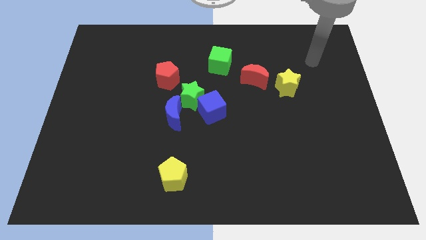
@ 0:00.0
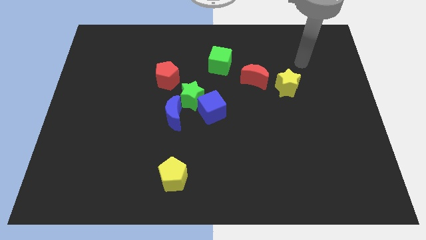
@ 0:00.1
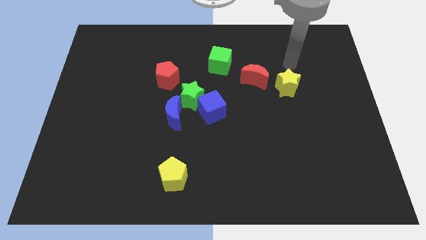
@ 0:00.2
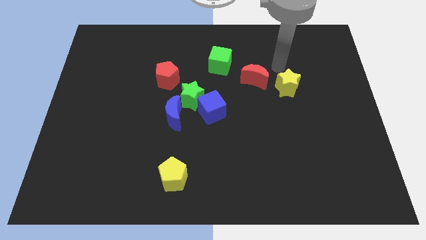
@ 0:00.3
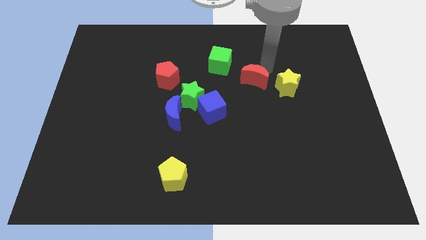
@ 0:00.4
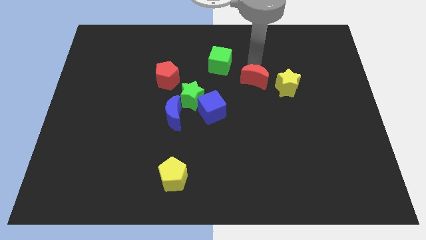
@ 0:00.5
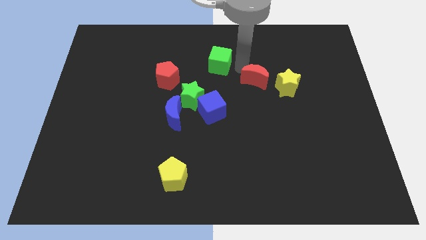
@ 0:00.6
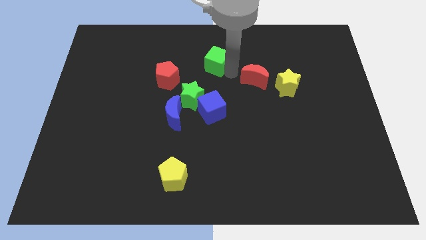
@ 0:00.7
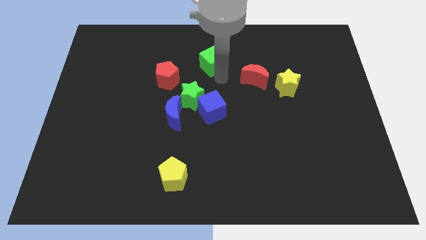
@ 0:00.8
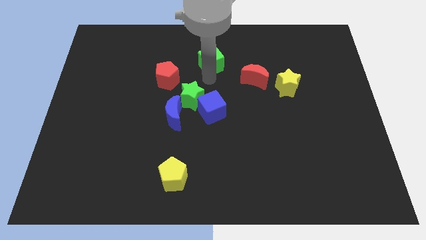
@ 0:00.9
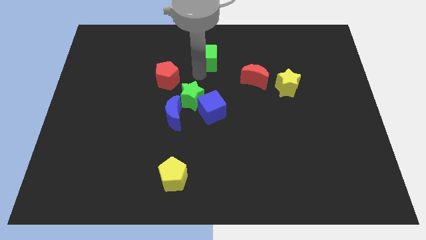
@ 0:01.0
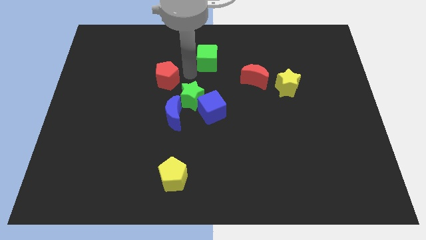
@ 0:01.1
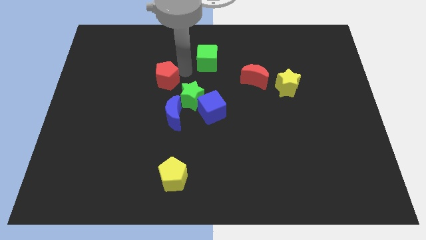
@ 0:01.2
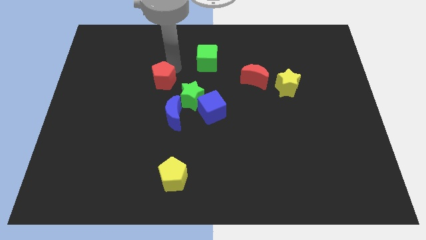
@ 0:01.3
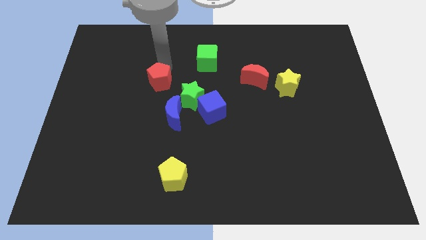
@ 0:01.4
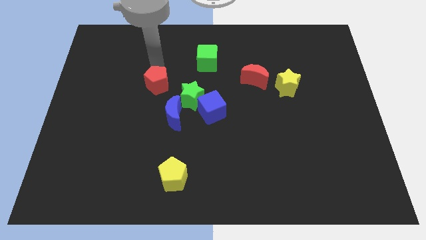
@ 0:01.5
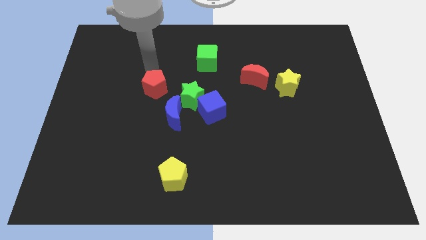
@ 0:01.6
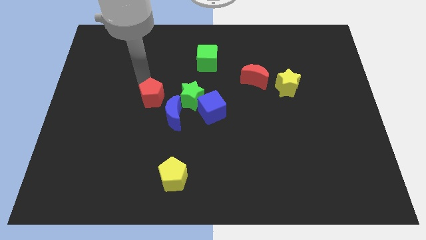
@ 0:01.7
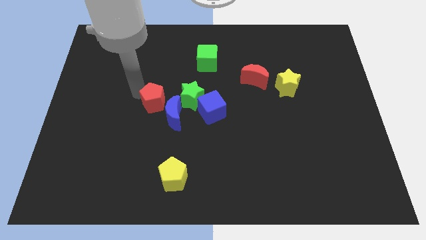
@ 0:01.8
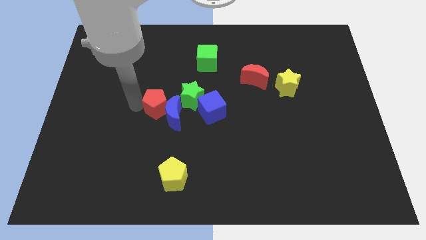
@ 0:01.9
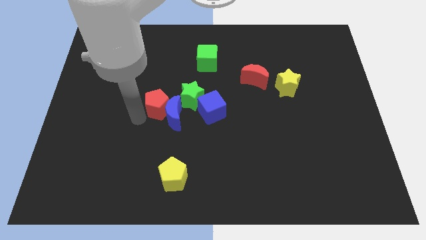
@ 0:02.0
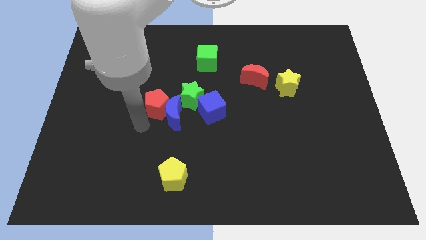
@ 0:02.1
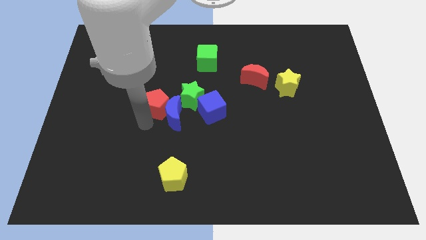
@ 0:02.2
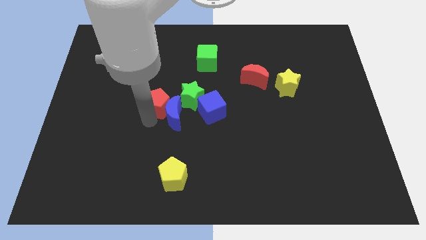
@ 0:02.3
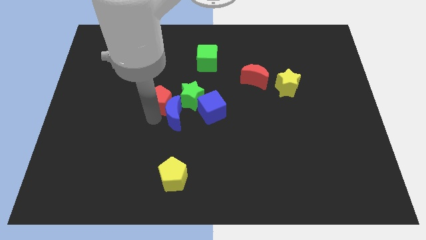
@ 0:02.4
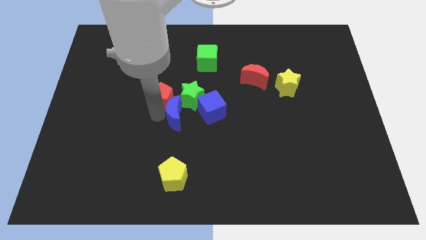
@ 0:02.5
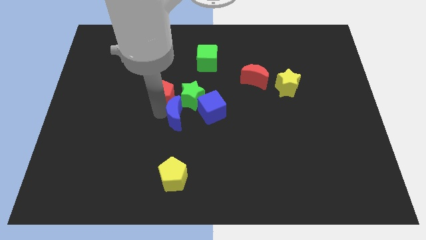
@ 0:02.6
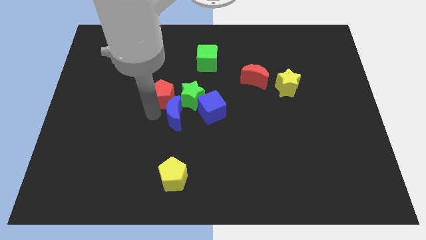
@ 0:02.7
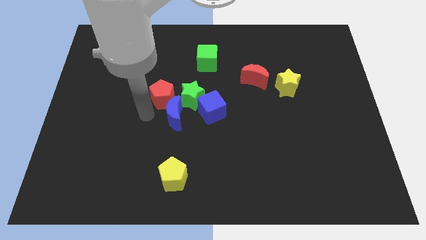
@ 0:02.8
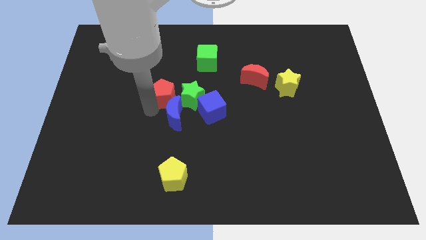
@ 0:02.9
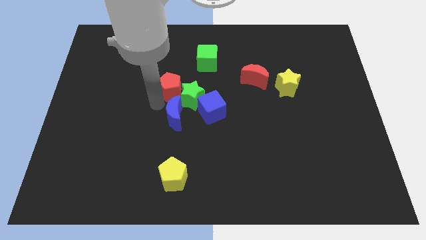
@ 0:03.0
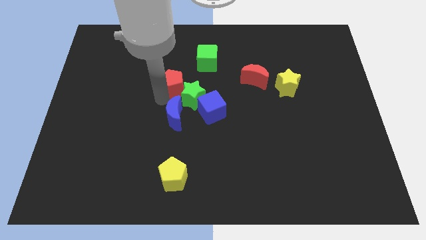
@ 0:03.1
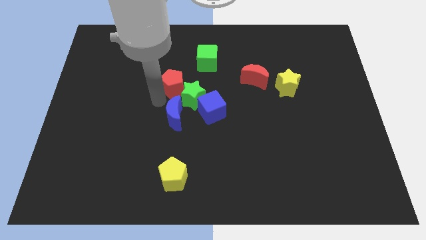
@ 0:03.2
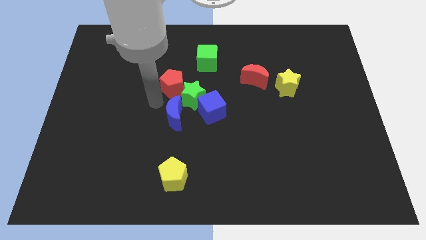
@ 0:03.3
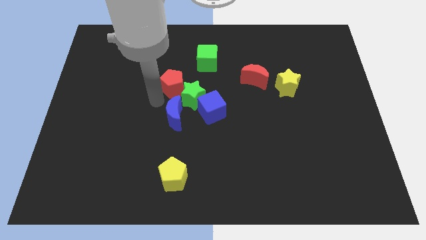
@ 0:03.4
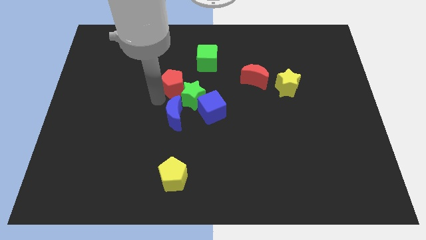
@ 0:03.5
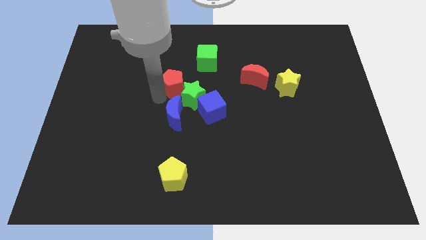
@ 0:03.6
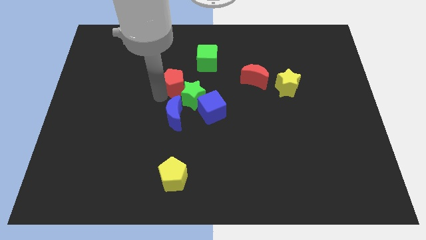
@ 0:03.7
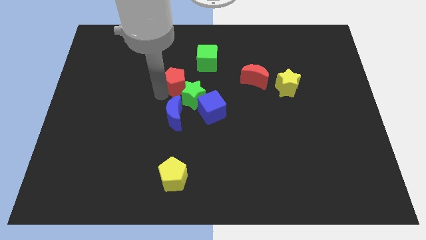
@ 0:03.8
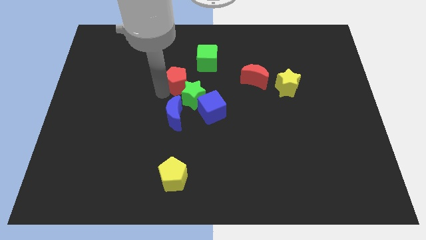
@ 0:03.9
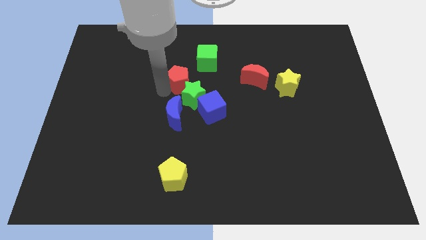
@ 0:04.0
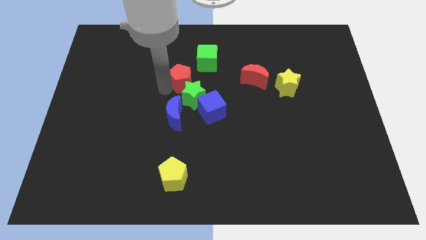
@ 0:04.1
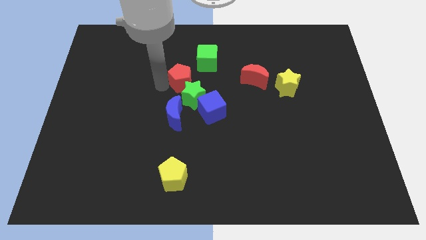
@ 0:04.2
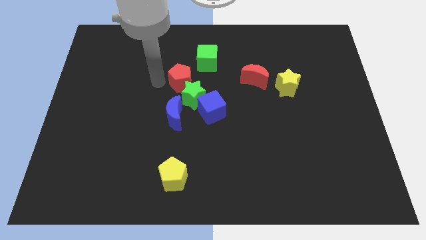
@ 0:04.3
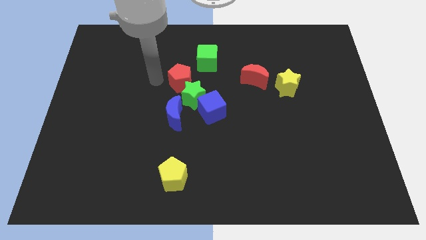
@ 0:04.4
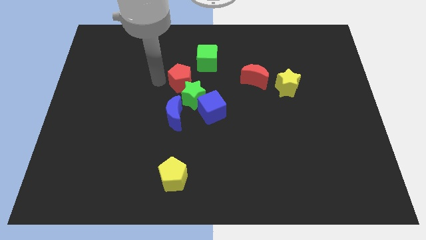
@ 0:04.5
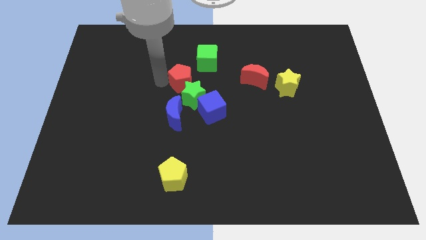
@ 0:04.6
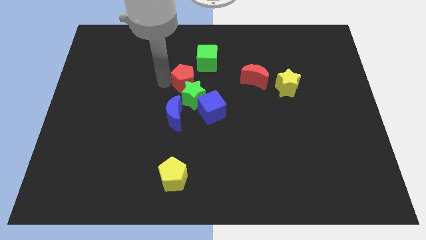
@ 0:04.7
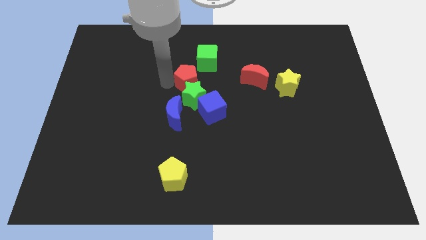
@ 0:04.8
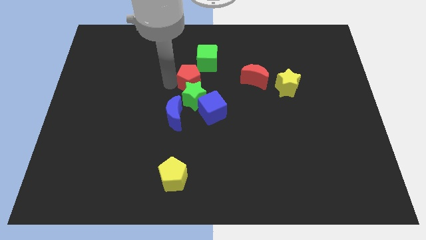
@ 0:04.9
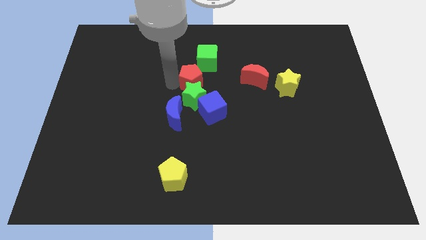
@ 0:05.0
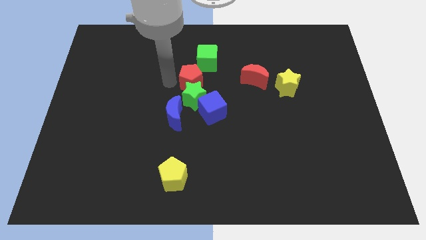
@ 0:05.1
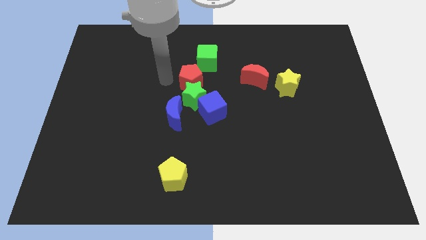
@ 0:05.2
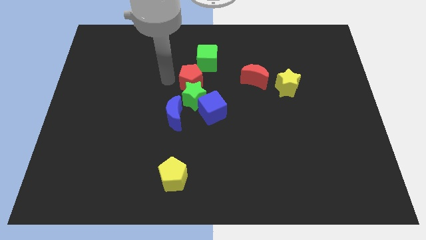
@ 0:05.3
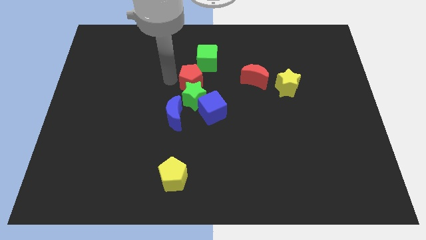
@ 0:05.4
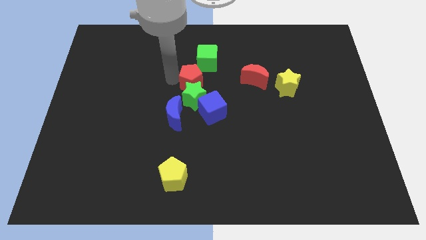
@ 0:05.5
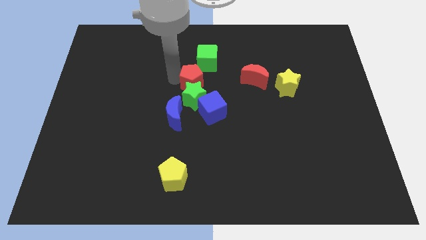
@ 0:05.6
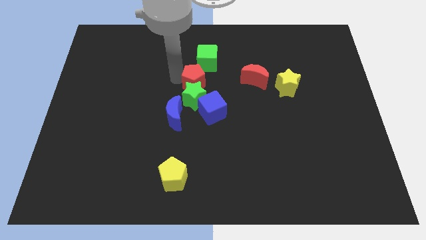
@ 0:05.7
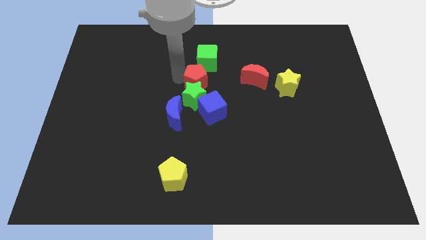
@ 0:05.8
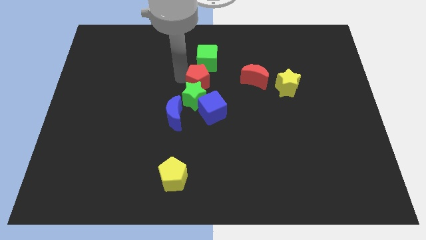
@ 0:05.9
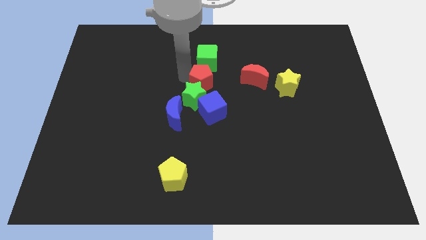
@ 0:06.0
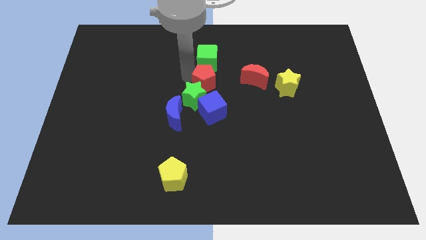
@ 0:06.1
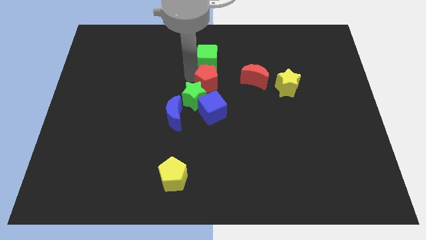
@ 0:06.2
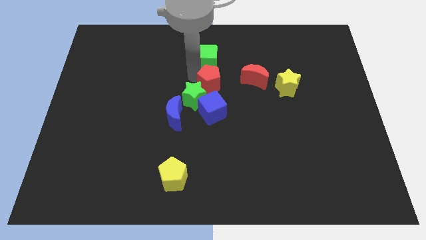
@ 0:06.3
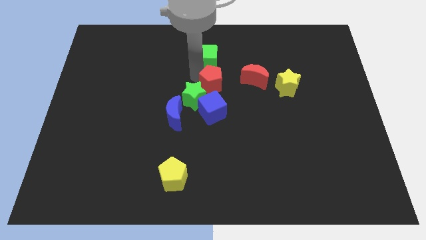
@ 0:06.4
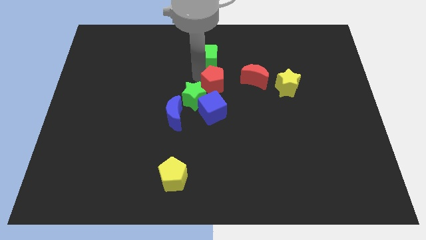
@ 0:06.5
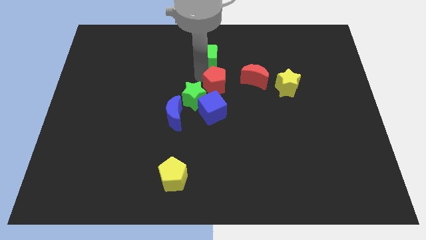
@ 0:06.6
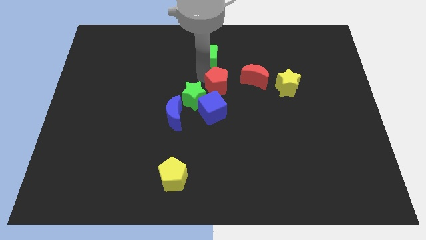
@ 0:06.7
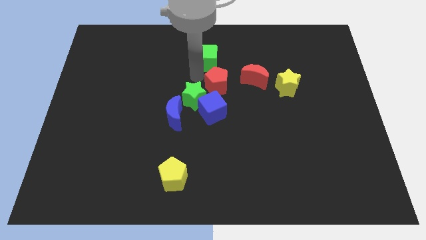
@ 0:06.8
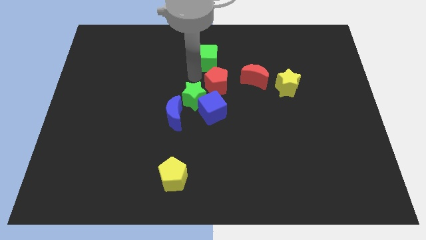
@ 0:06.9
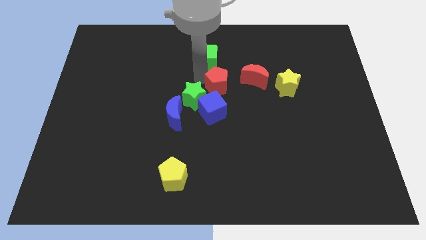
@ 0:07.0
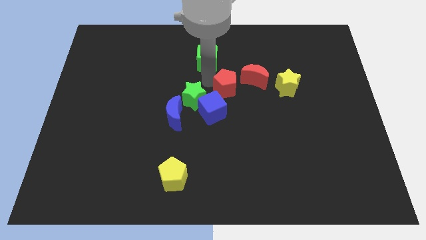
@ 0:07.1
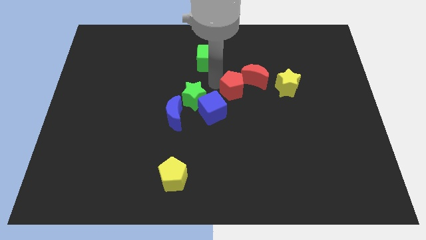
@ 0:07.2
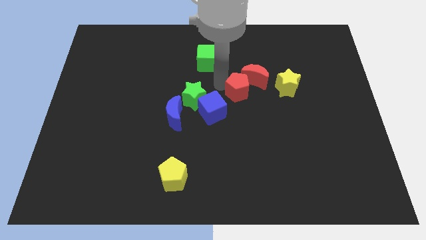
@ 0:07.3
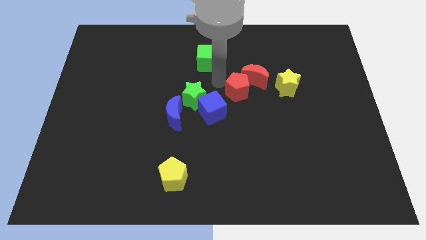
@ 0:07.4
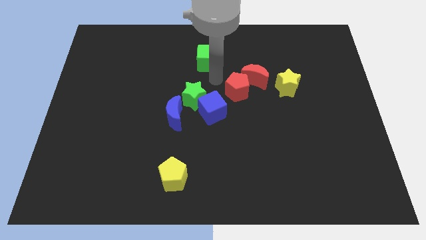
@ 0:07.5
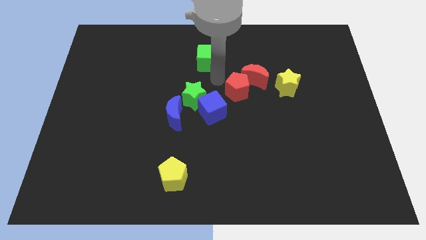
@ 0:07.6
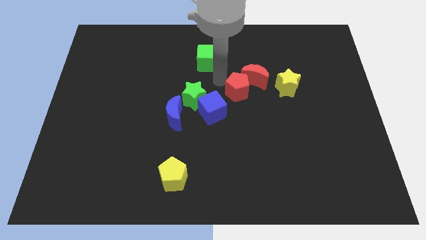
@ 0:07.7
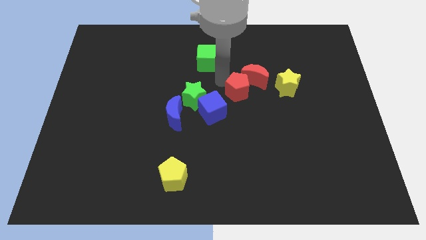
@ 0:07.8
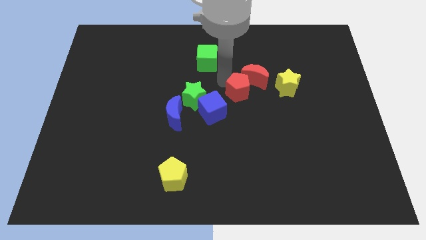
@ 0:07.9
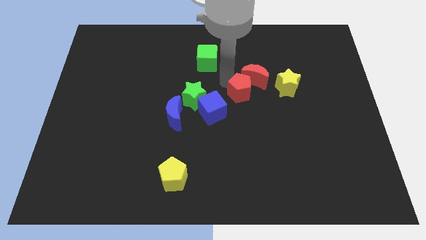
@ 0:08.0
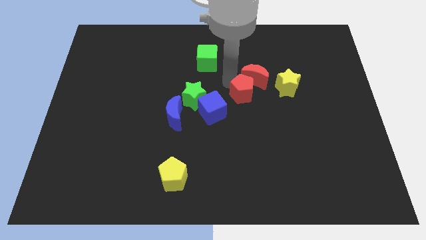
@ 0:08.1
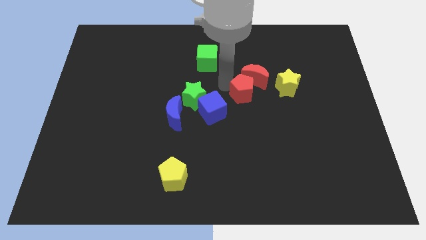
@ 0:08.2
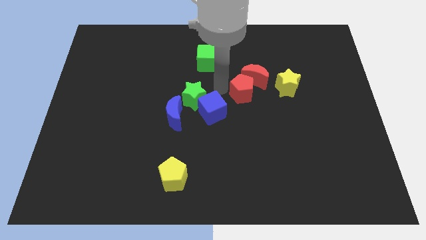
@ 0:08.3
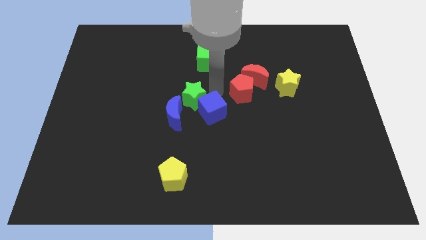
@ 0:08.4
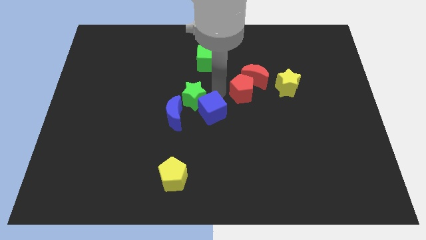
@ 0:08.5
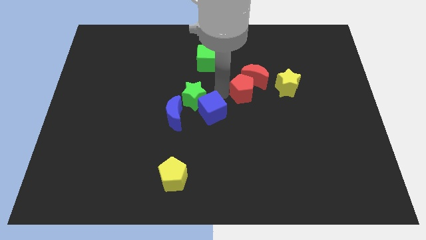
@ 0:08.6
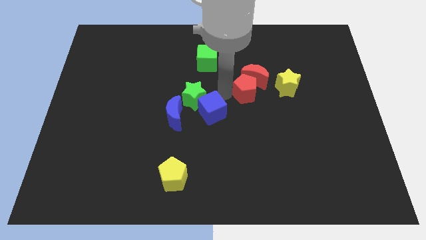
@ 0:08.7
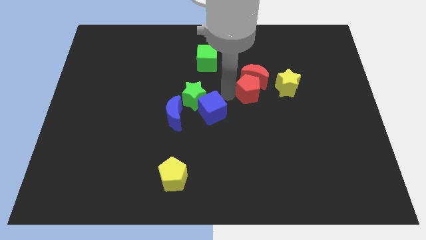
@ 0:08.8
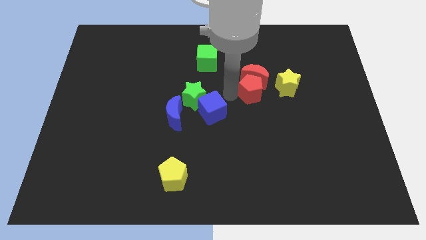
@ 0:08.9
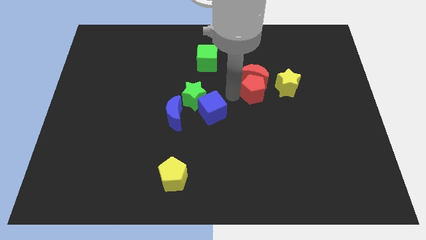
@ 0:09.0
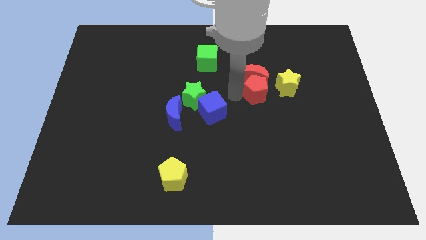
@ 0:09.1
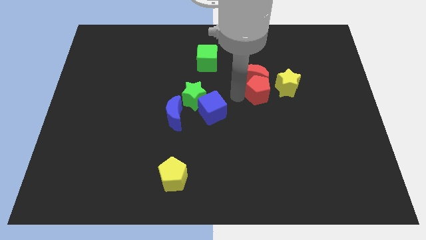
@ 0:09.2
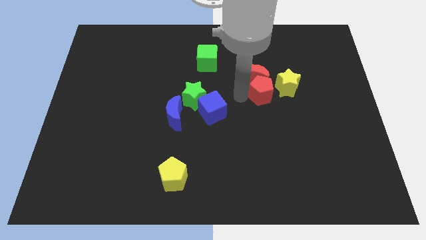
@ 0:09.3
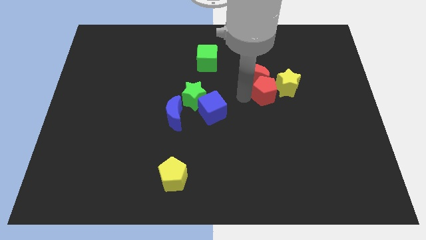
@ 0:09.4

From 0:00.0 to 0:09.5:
push the red pentagon towards the yellow star
